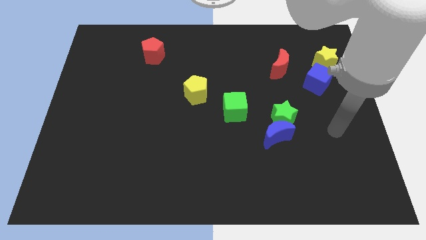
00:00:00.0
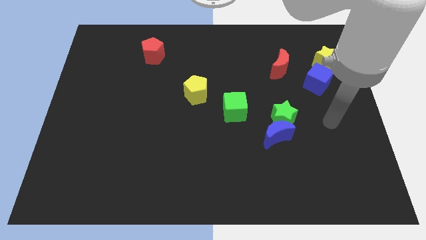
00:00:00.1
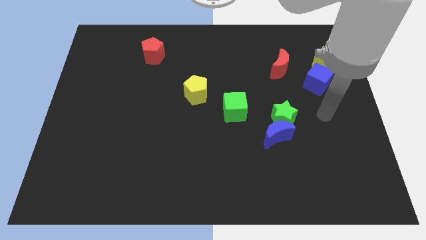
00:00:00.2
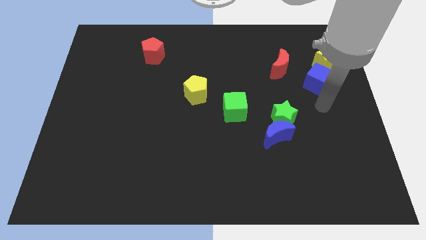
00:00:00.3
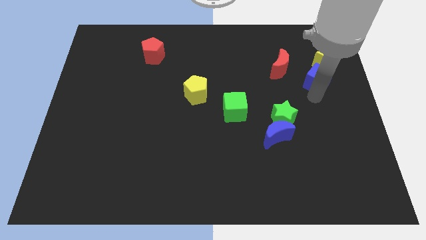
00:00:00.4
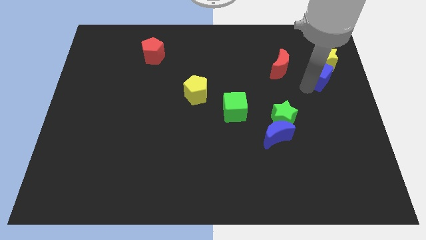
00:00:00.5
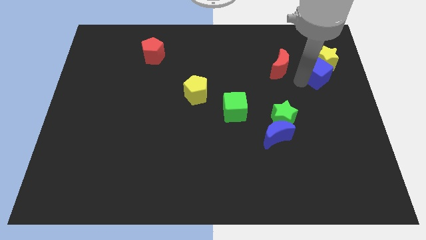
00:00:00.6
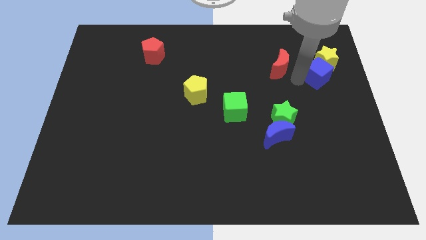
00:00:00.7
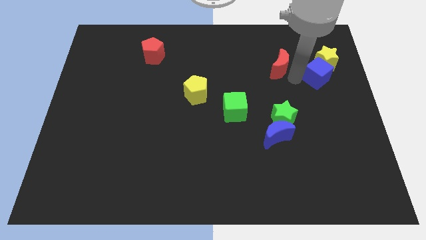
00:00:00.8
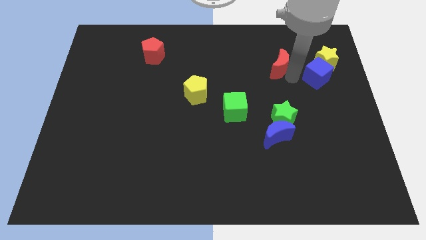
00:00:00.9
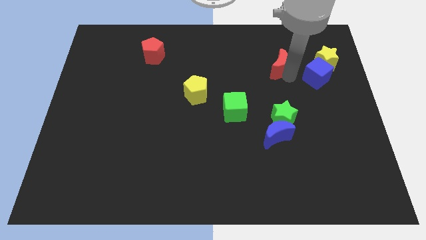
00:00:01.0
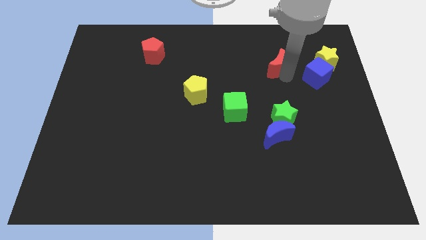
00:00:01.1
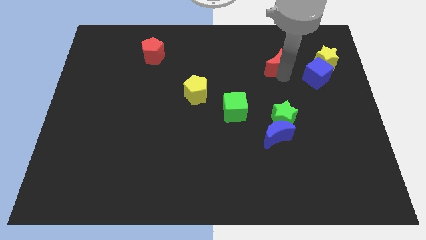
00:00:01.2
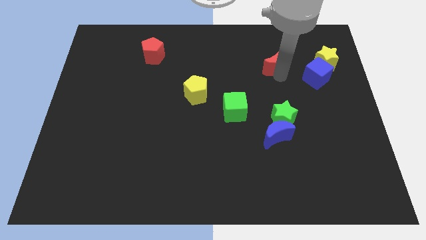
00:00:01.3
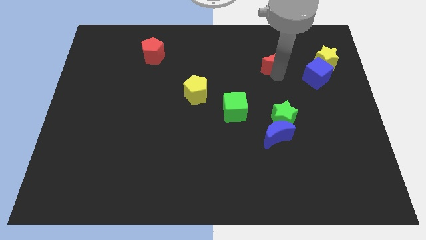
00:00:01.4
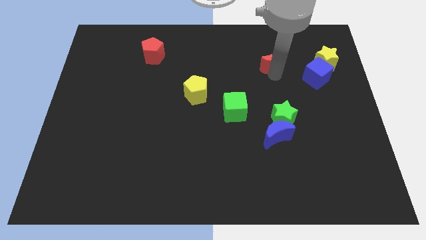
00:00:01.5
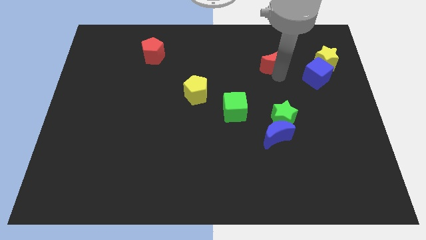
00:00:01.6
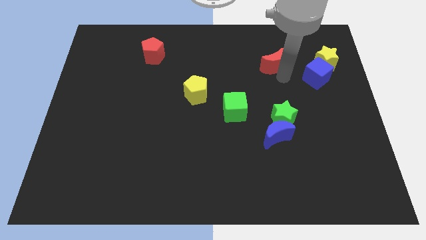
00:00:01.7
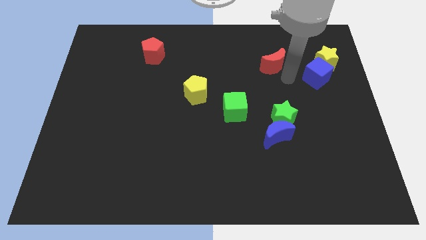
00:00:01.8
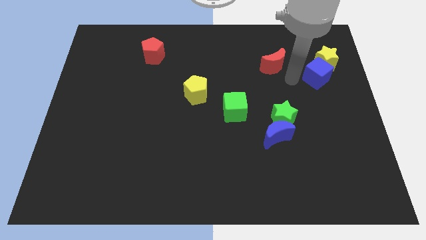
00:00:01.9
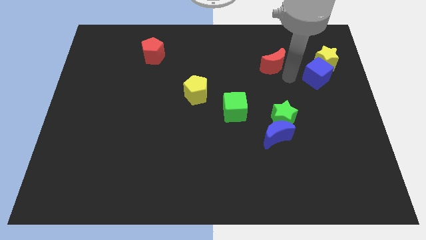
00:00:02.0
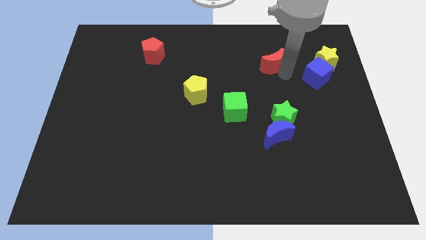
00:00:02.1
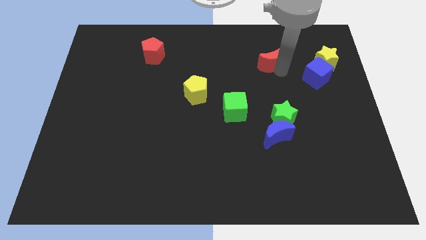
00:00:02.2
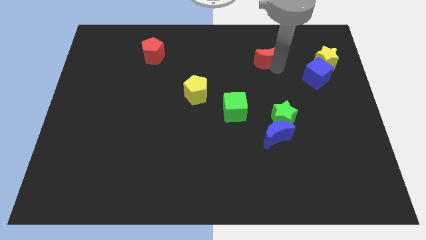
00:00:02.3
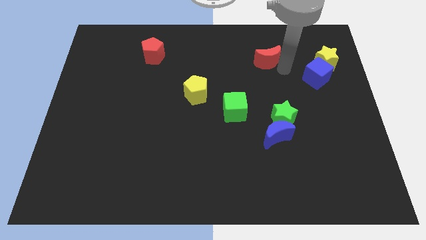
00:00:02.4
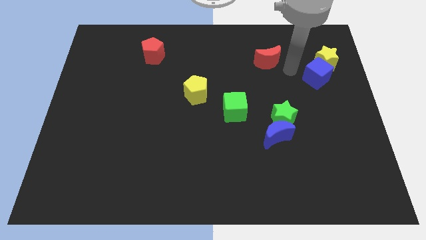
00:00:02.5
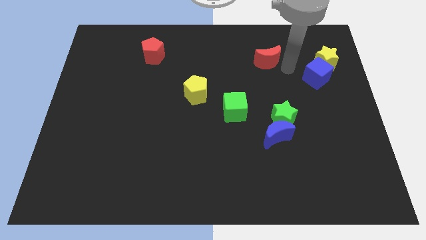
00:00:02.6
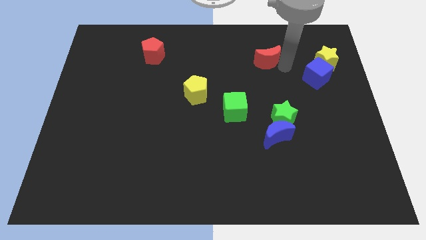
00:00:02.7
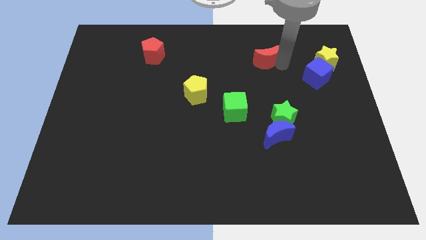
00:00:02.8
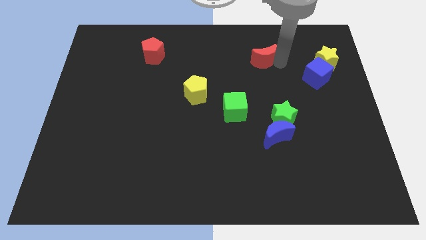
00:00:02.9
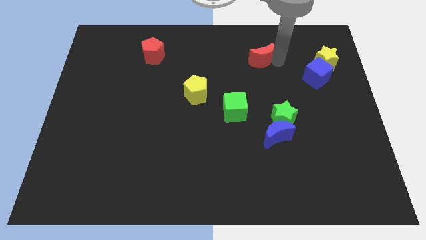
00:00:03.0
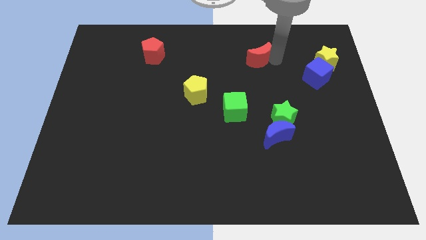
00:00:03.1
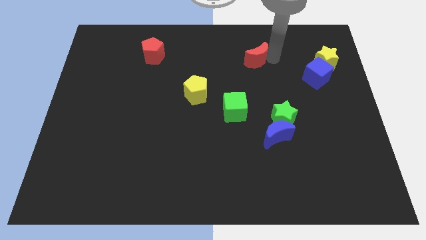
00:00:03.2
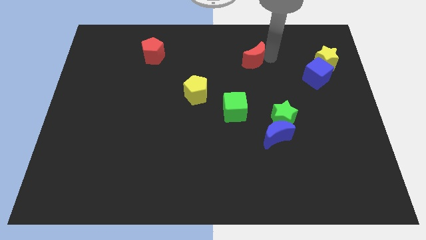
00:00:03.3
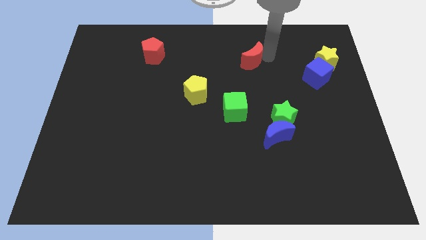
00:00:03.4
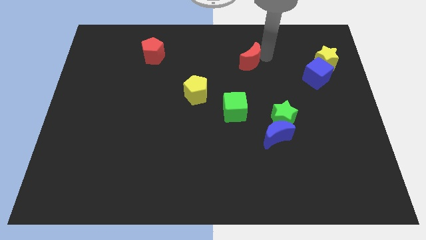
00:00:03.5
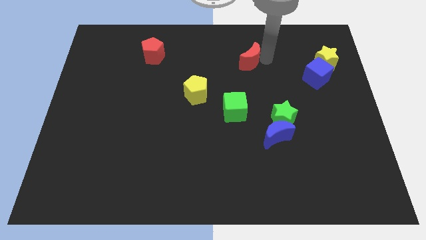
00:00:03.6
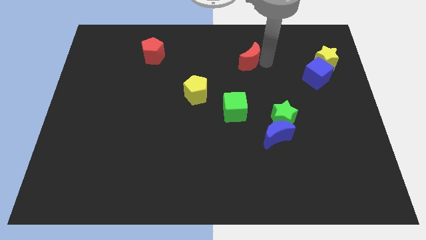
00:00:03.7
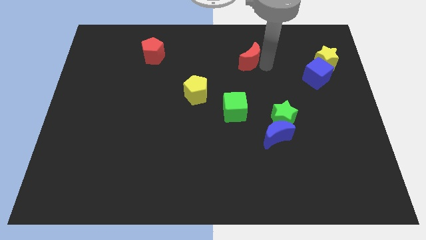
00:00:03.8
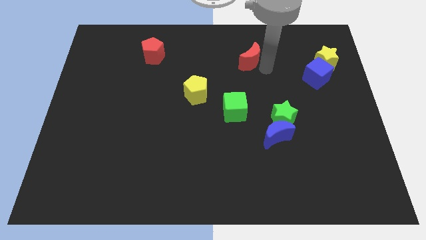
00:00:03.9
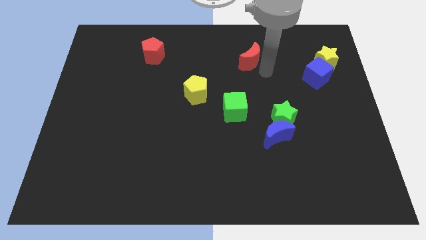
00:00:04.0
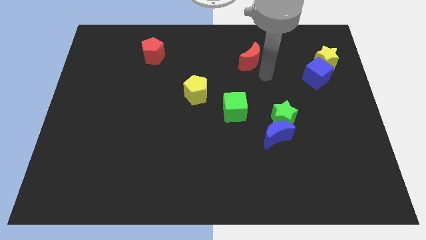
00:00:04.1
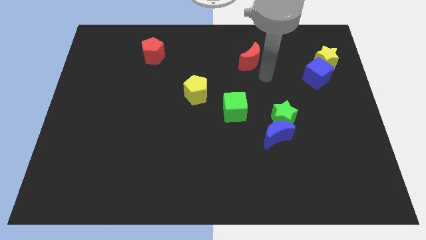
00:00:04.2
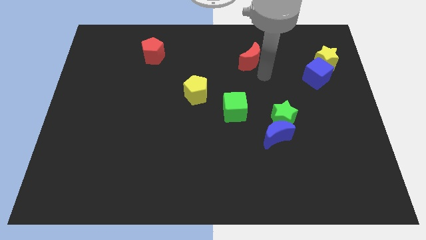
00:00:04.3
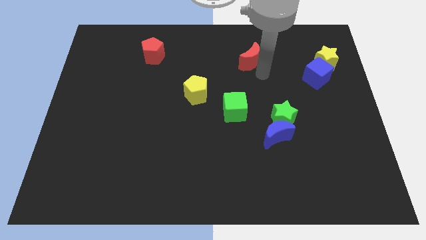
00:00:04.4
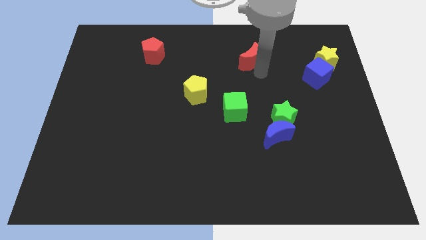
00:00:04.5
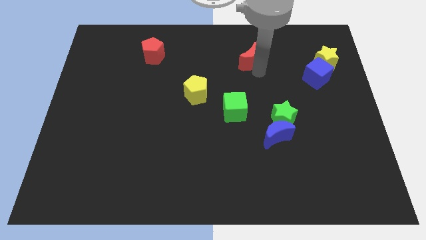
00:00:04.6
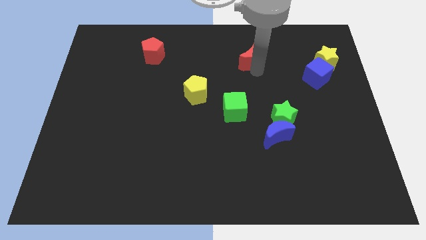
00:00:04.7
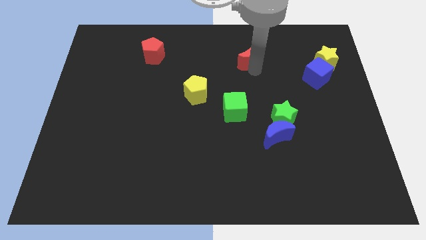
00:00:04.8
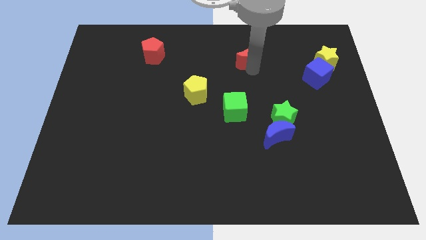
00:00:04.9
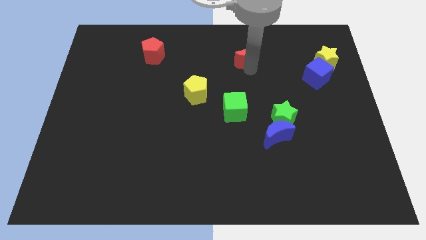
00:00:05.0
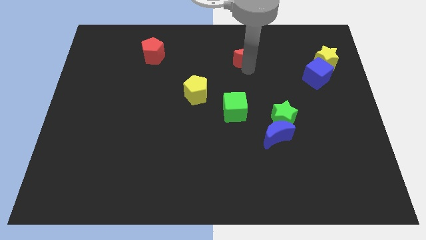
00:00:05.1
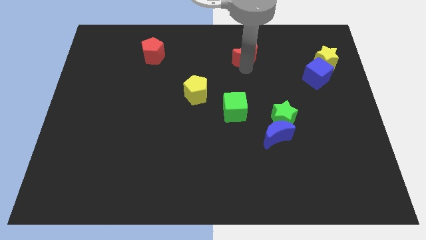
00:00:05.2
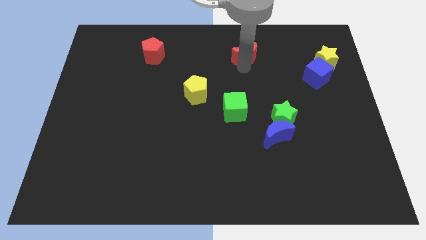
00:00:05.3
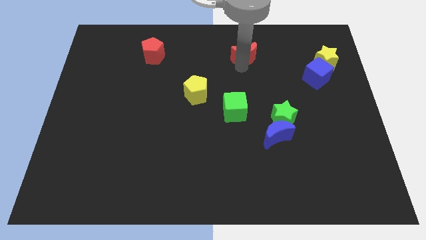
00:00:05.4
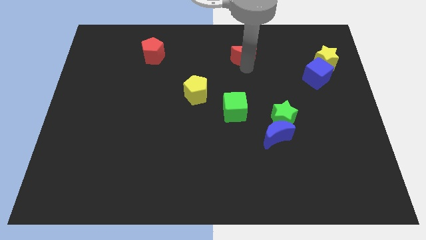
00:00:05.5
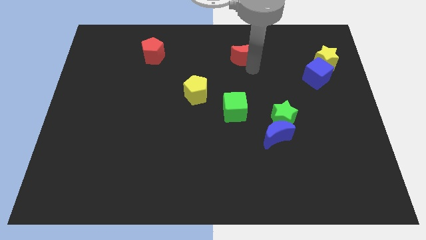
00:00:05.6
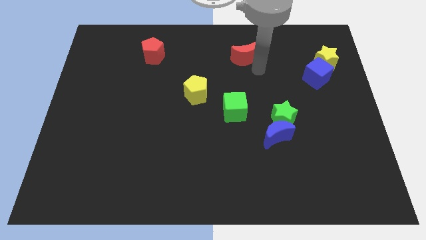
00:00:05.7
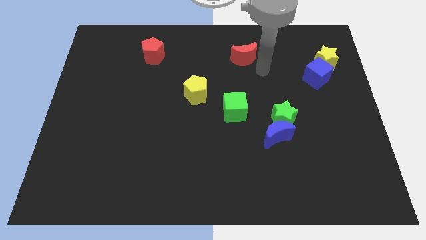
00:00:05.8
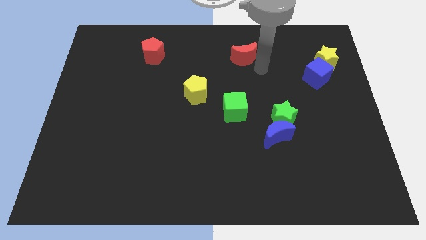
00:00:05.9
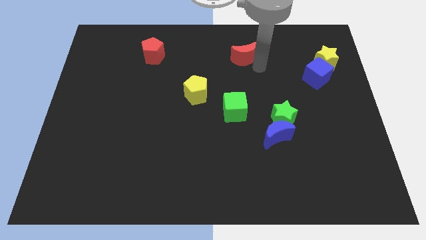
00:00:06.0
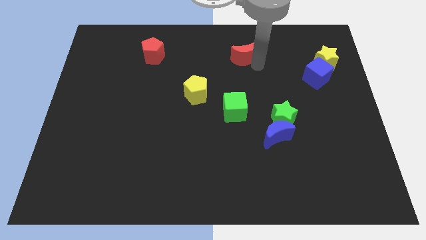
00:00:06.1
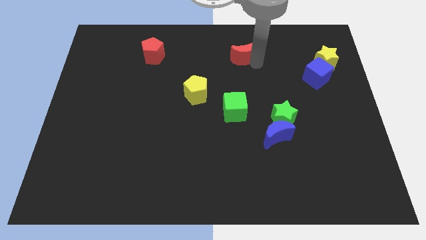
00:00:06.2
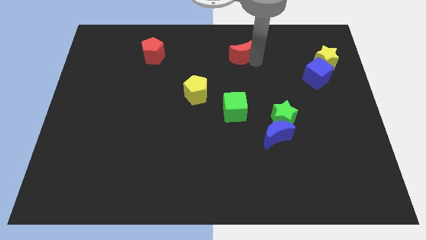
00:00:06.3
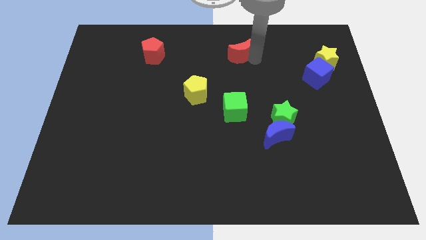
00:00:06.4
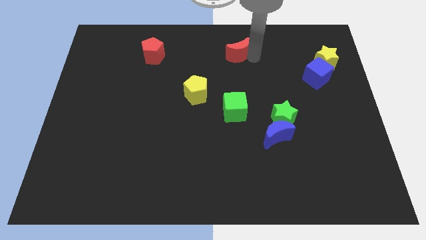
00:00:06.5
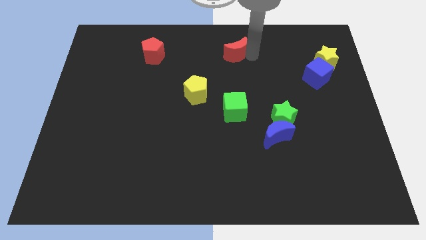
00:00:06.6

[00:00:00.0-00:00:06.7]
move the red moon to the top
